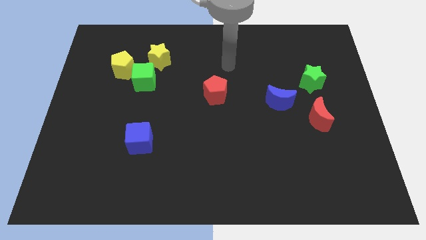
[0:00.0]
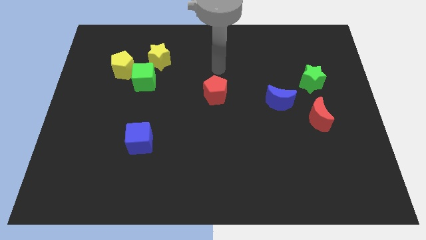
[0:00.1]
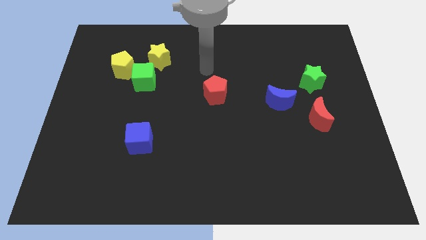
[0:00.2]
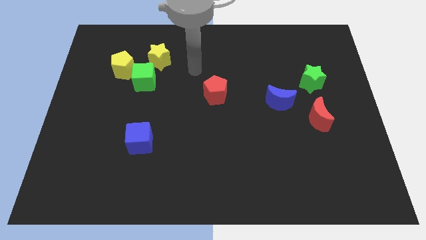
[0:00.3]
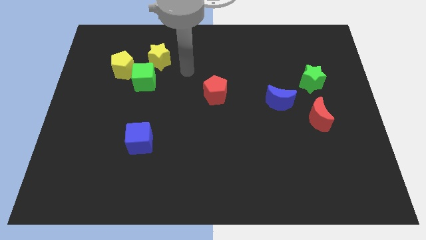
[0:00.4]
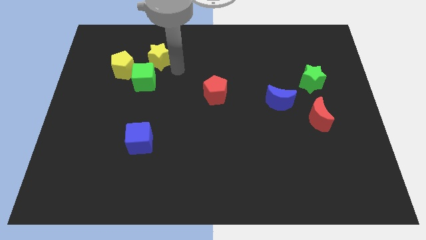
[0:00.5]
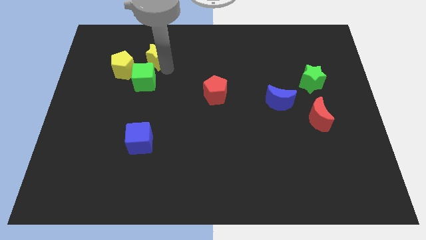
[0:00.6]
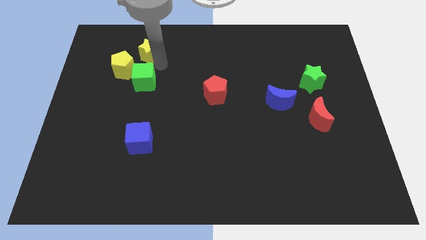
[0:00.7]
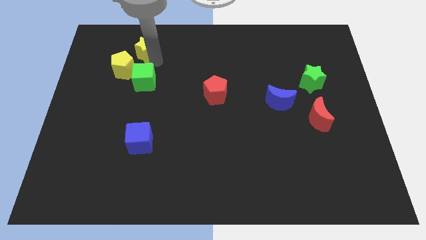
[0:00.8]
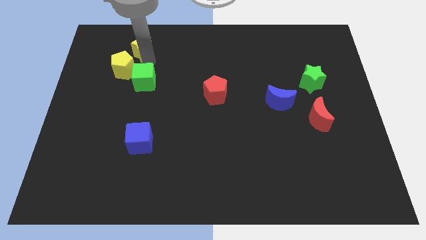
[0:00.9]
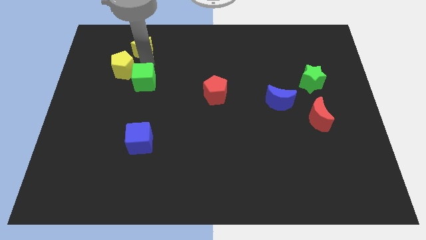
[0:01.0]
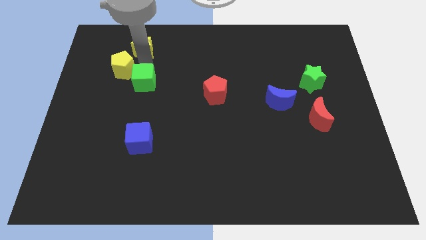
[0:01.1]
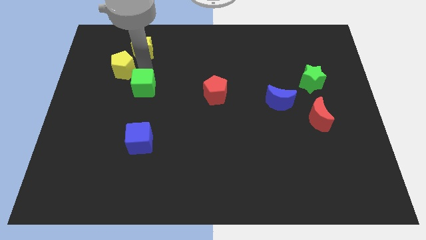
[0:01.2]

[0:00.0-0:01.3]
separate the green cube from the yellow pentagon and yellow star

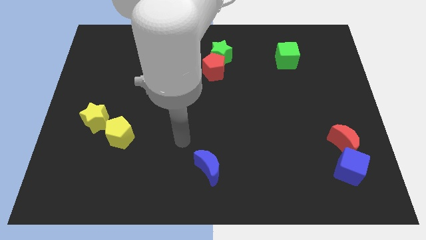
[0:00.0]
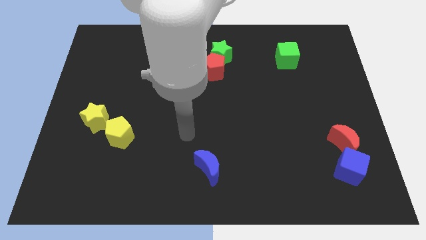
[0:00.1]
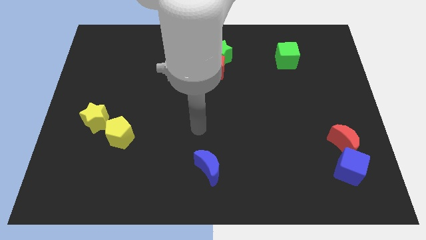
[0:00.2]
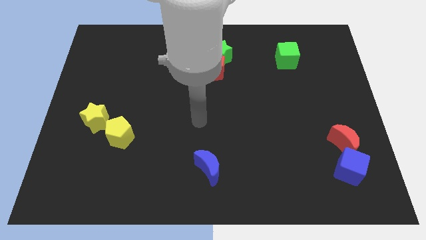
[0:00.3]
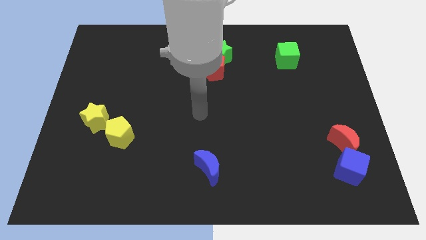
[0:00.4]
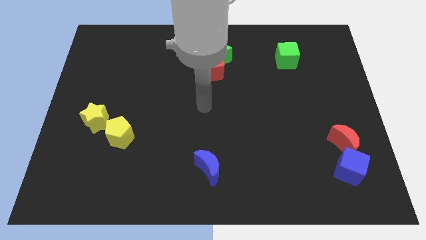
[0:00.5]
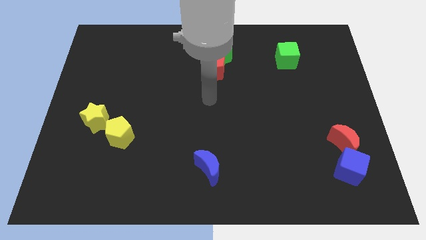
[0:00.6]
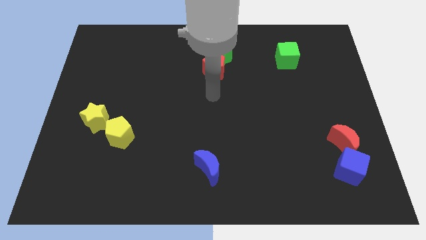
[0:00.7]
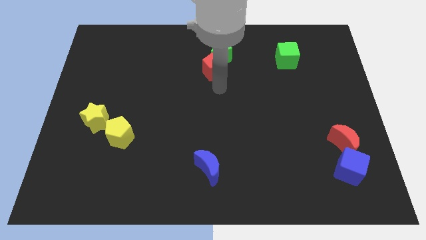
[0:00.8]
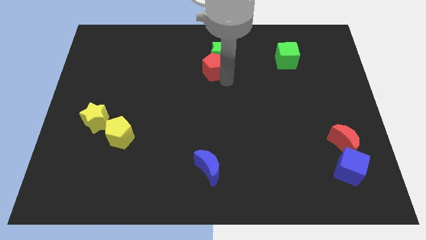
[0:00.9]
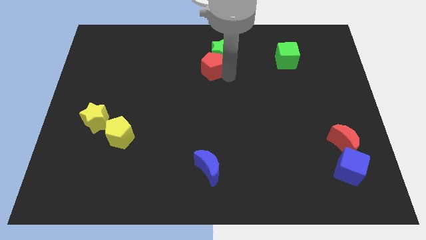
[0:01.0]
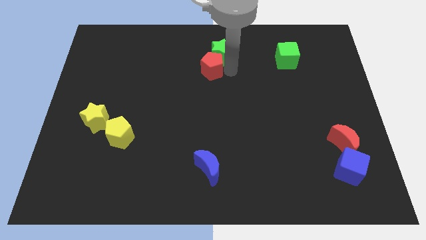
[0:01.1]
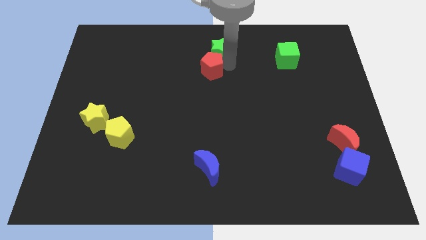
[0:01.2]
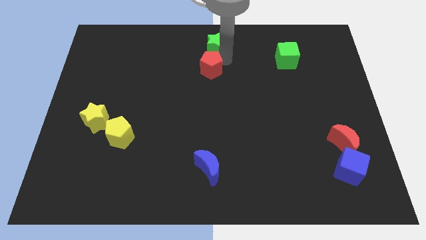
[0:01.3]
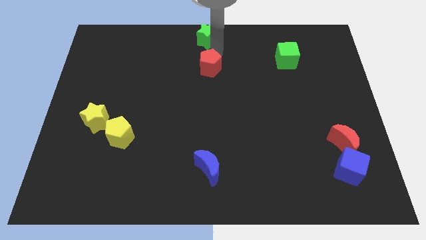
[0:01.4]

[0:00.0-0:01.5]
pull the red pentagon apart from the green star

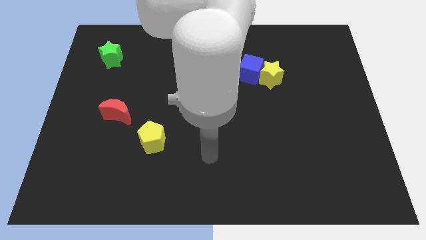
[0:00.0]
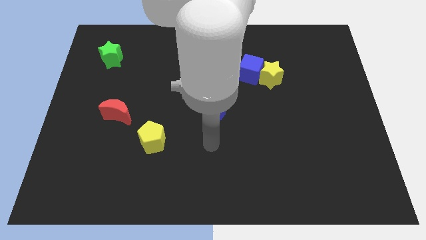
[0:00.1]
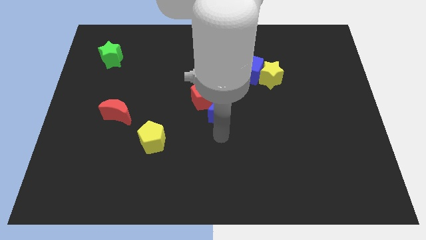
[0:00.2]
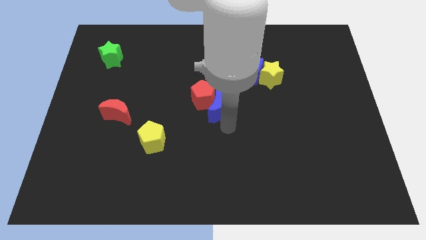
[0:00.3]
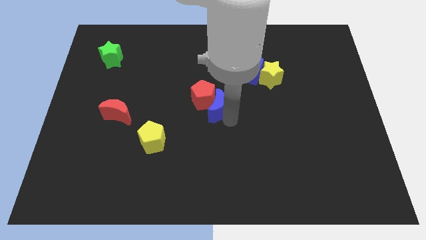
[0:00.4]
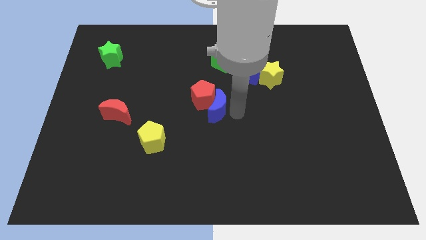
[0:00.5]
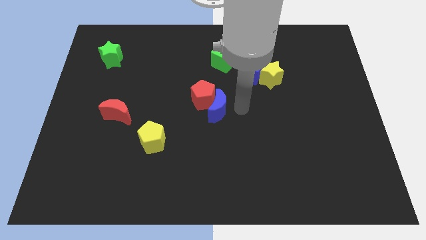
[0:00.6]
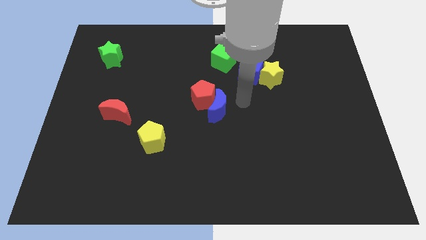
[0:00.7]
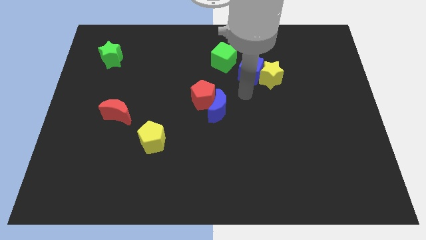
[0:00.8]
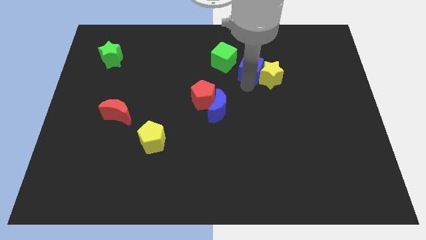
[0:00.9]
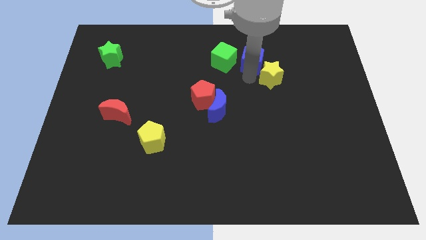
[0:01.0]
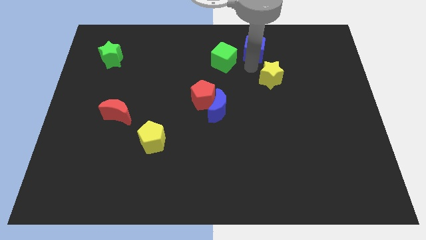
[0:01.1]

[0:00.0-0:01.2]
move the yellow star away from the blue cube

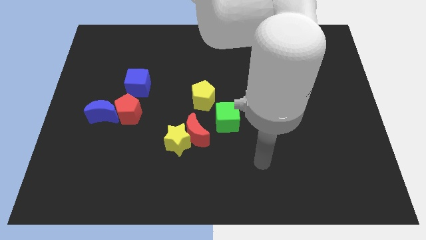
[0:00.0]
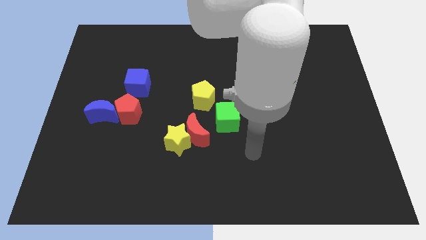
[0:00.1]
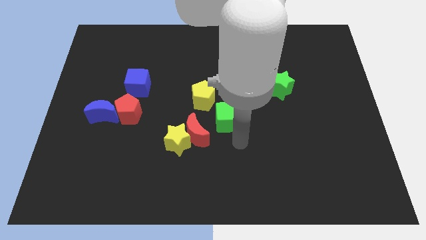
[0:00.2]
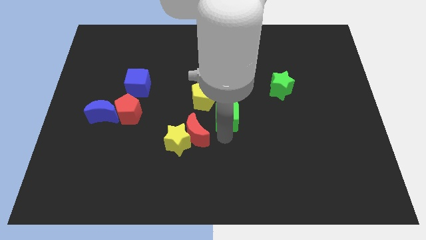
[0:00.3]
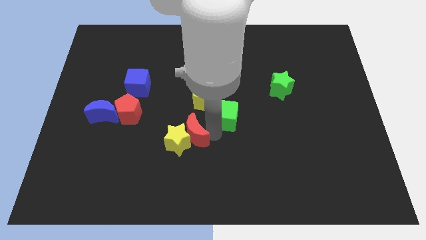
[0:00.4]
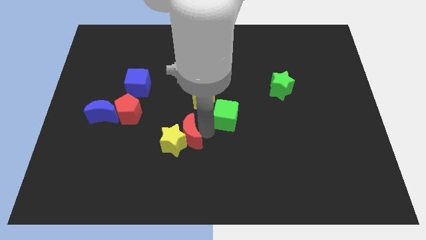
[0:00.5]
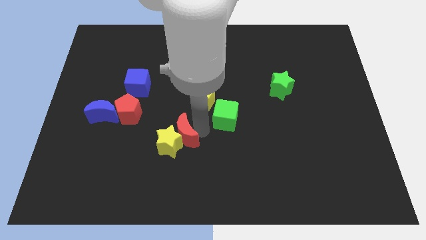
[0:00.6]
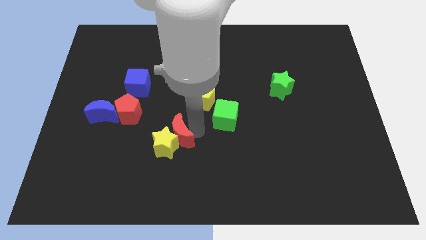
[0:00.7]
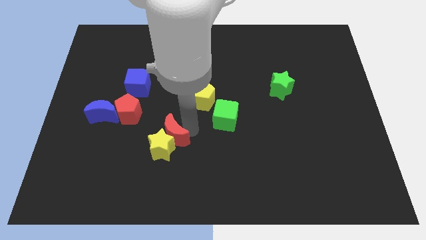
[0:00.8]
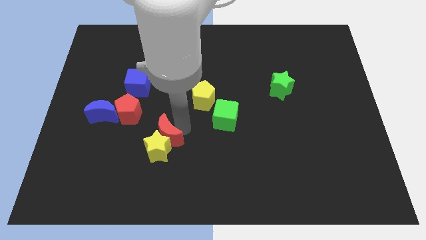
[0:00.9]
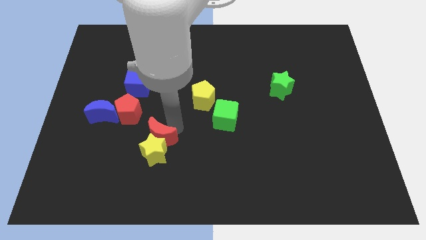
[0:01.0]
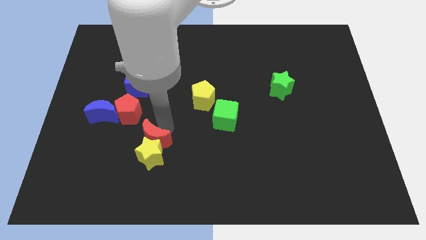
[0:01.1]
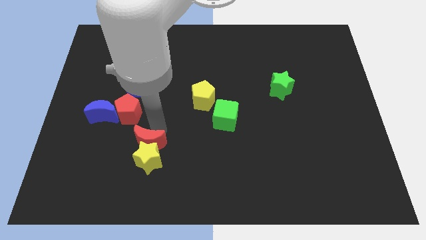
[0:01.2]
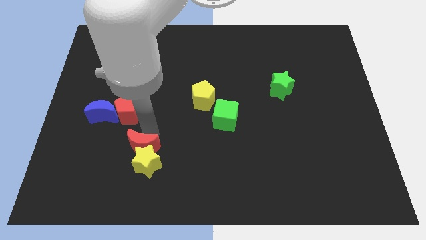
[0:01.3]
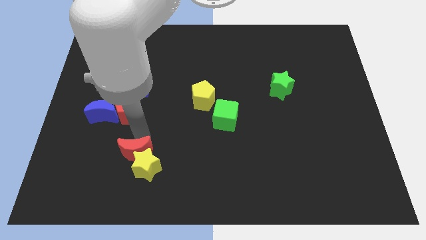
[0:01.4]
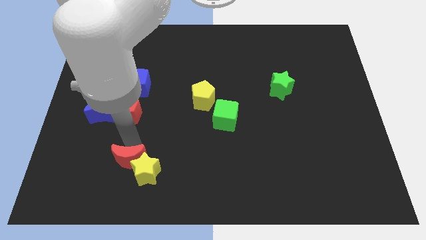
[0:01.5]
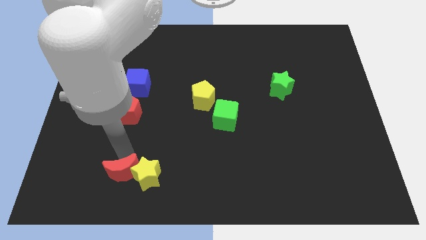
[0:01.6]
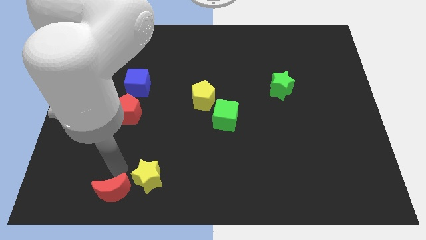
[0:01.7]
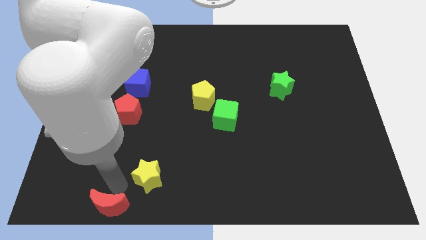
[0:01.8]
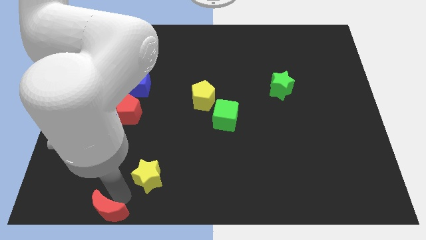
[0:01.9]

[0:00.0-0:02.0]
move the yellow star away from the red moon

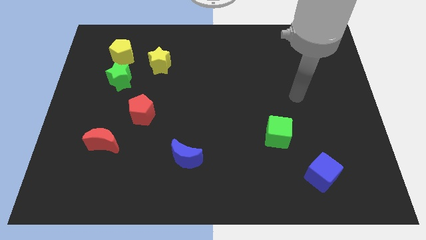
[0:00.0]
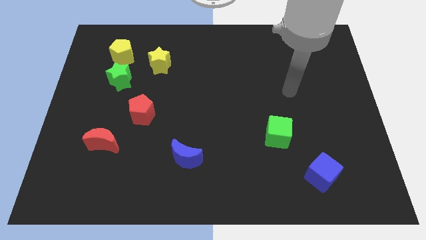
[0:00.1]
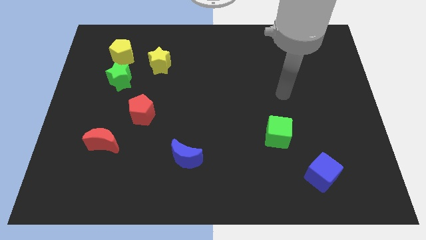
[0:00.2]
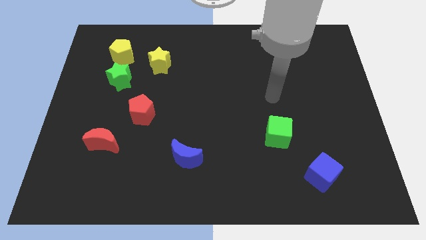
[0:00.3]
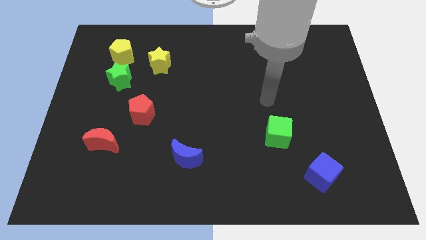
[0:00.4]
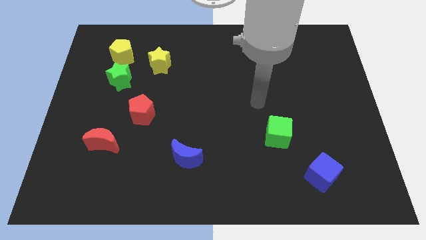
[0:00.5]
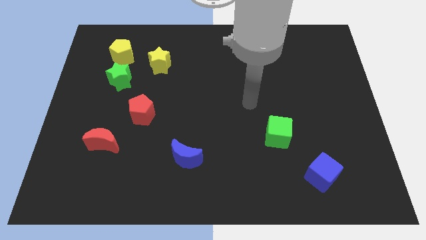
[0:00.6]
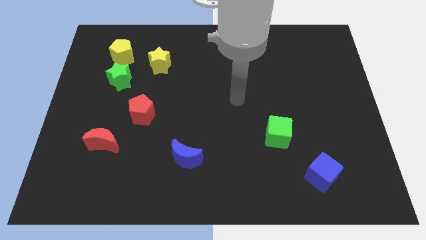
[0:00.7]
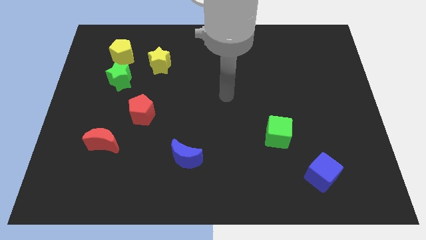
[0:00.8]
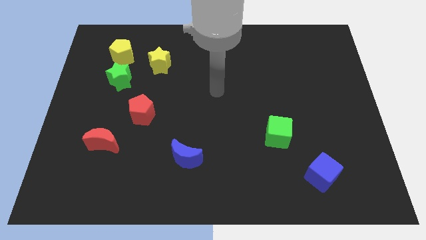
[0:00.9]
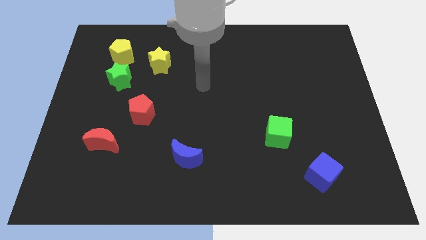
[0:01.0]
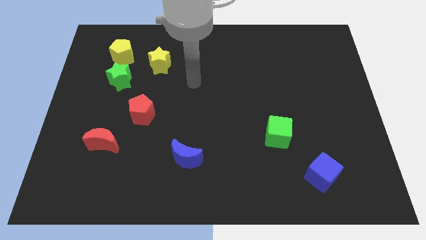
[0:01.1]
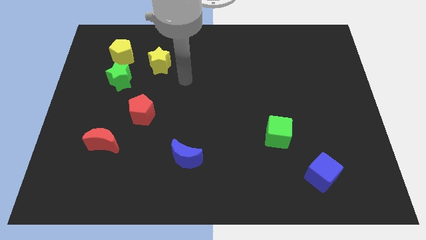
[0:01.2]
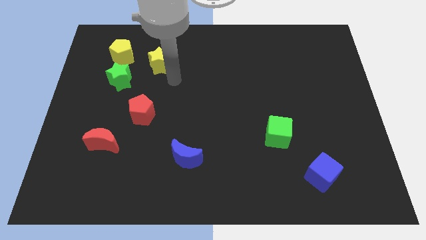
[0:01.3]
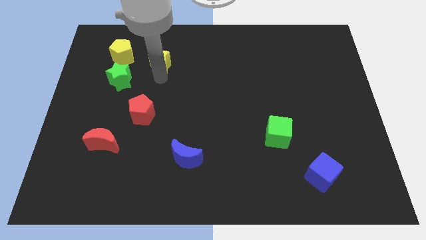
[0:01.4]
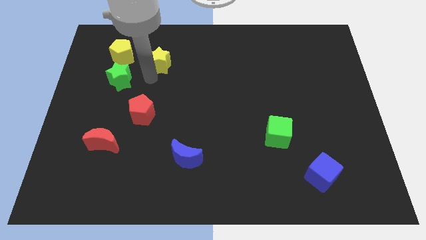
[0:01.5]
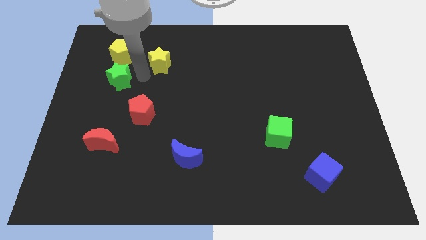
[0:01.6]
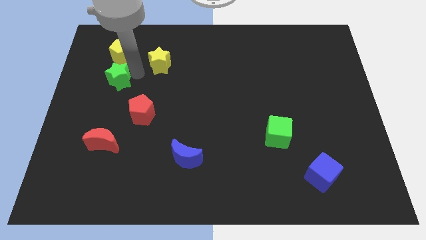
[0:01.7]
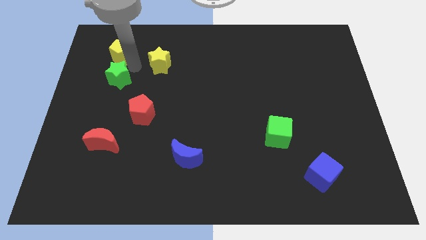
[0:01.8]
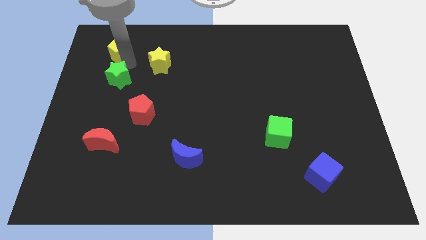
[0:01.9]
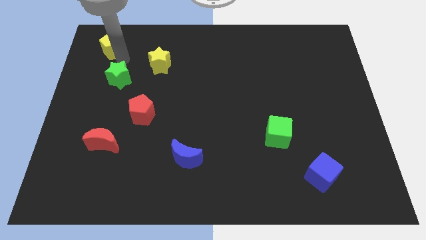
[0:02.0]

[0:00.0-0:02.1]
pull the green star apart from the yellow pentagon

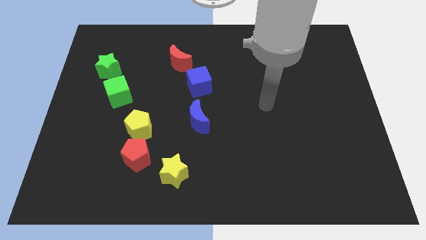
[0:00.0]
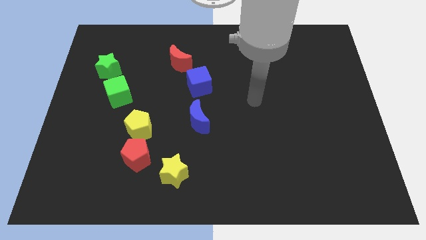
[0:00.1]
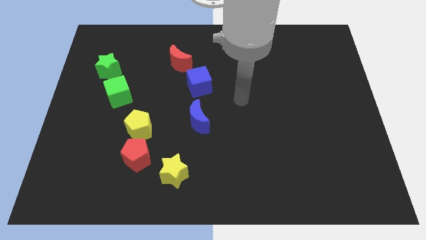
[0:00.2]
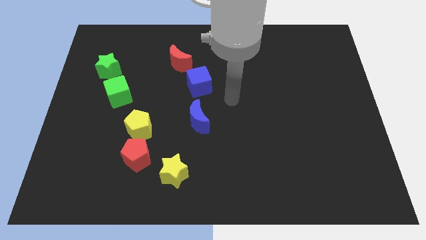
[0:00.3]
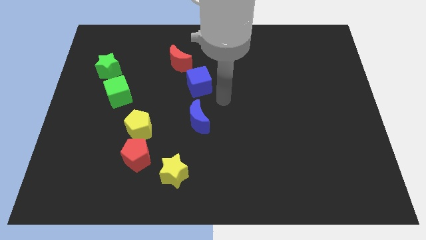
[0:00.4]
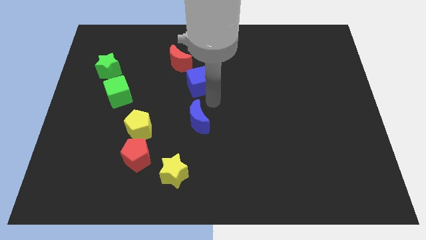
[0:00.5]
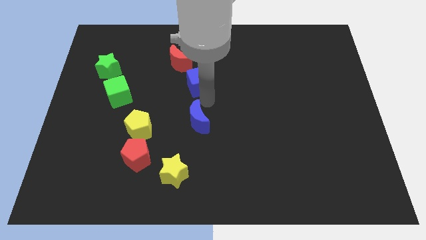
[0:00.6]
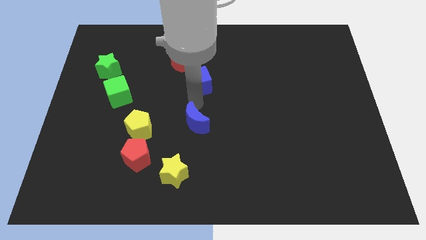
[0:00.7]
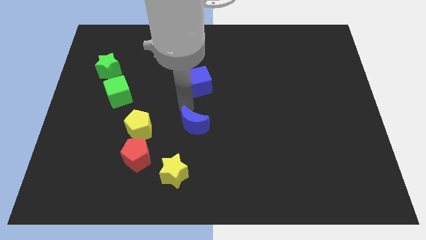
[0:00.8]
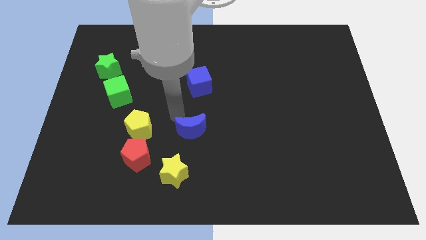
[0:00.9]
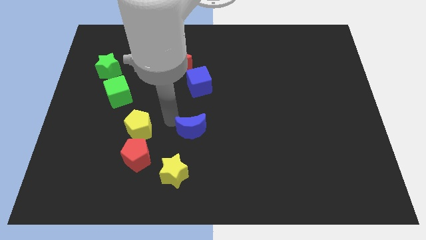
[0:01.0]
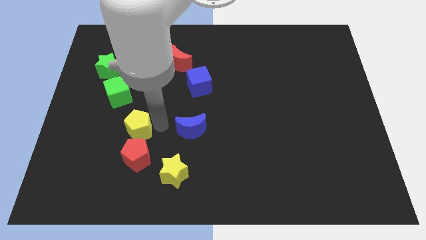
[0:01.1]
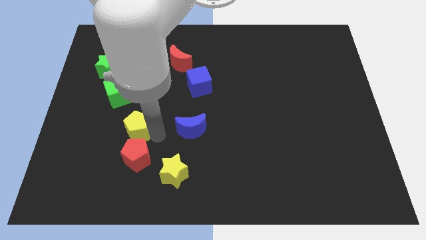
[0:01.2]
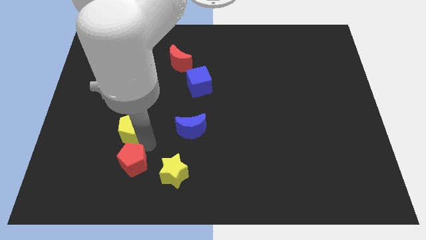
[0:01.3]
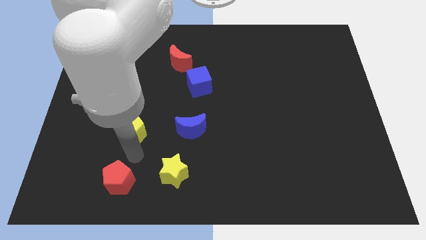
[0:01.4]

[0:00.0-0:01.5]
move the yellow pentagon away from the red pentagon
